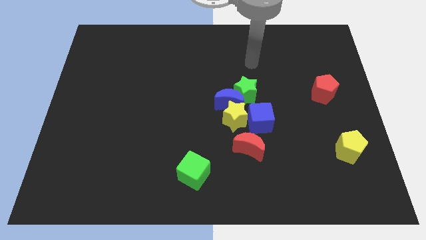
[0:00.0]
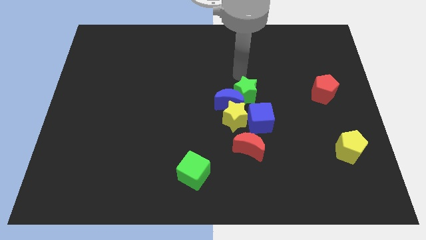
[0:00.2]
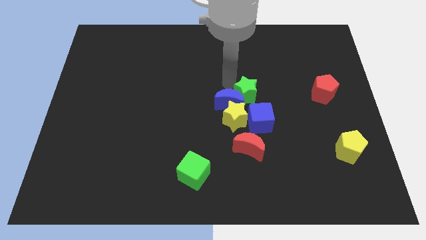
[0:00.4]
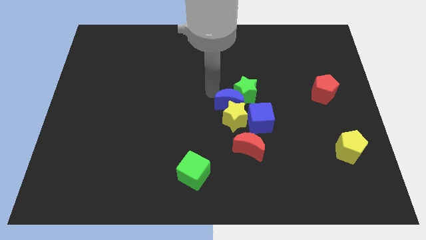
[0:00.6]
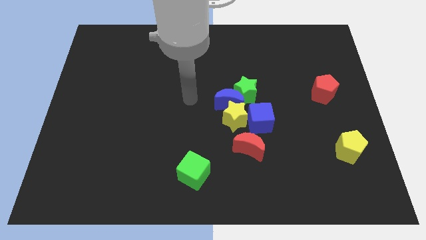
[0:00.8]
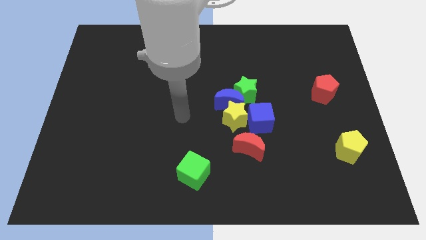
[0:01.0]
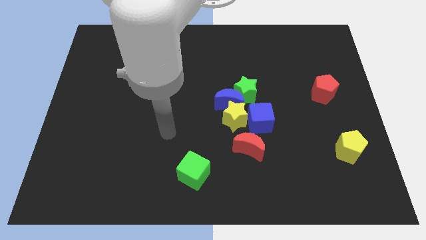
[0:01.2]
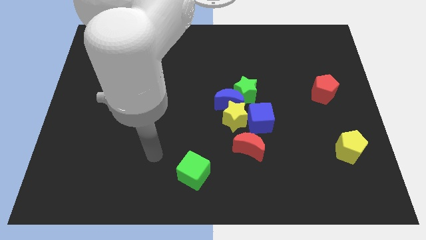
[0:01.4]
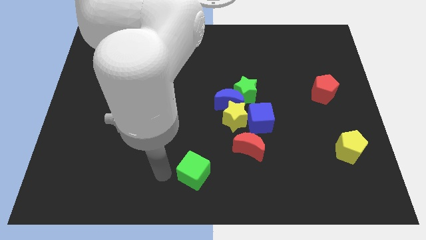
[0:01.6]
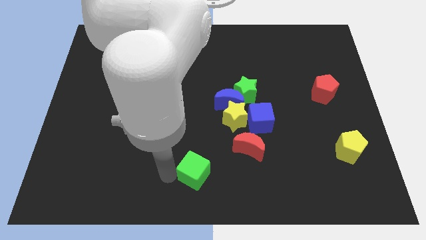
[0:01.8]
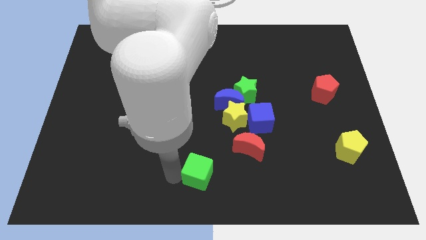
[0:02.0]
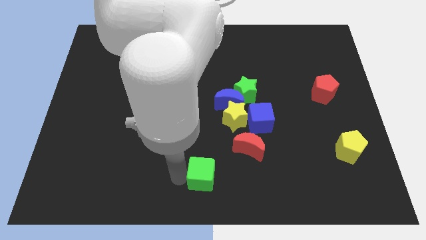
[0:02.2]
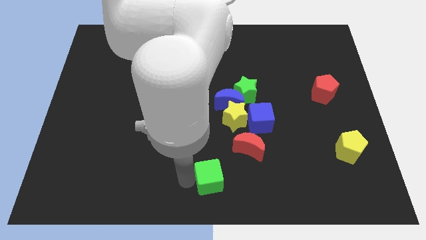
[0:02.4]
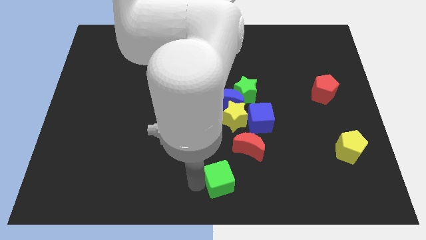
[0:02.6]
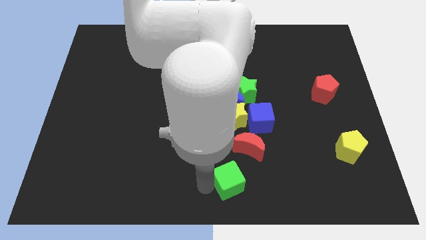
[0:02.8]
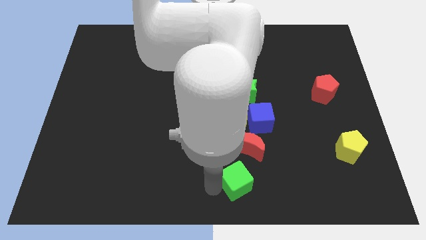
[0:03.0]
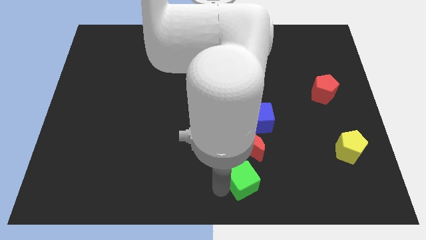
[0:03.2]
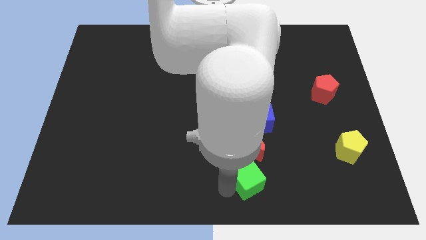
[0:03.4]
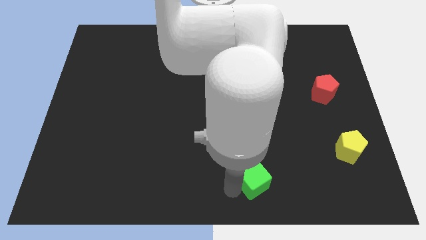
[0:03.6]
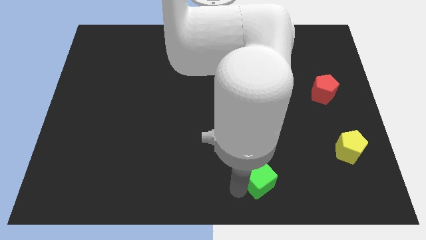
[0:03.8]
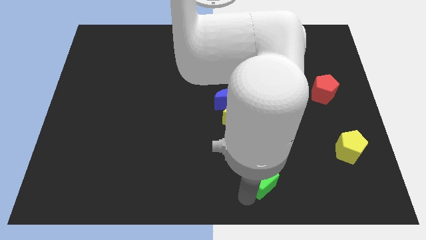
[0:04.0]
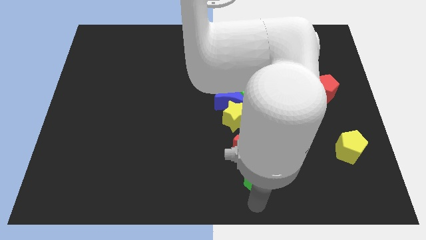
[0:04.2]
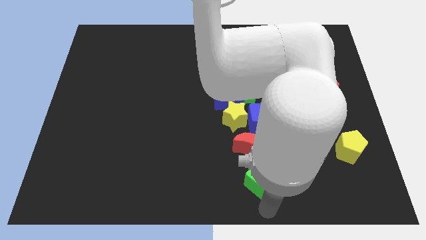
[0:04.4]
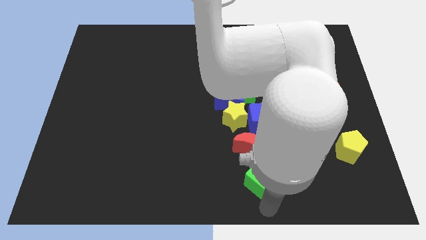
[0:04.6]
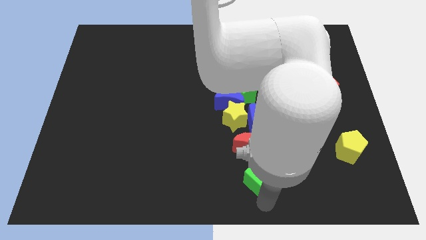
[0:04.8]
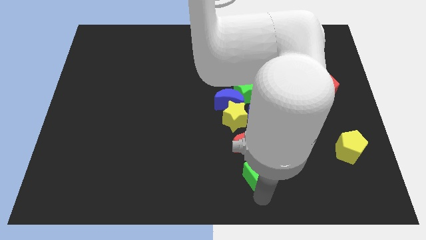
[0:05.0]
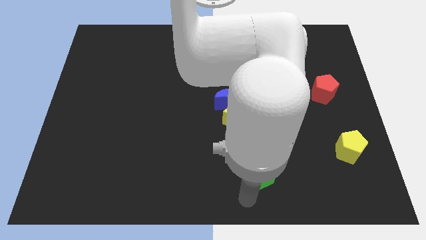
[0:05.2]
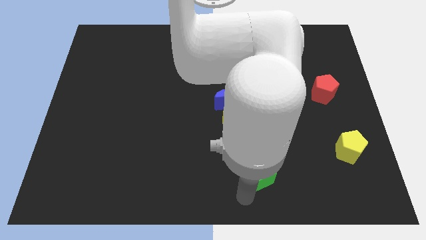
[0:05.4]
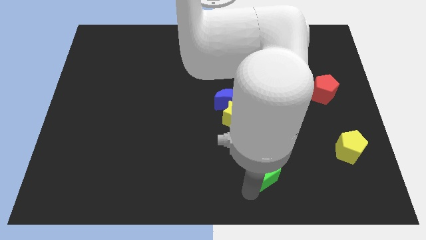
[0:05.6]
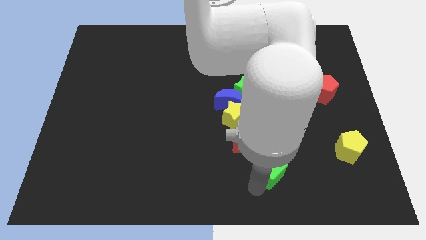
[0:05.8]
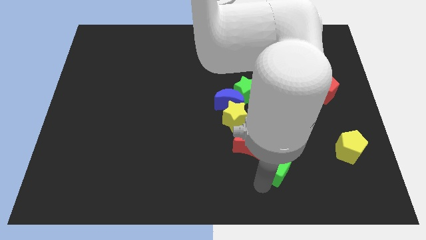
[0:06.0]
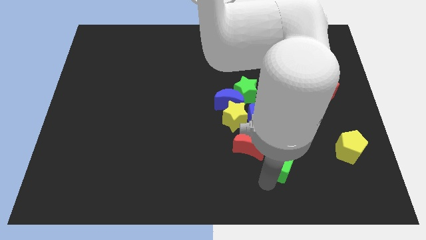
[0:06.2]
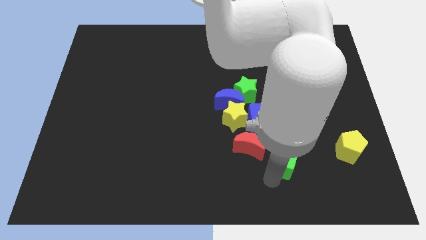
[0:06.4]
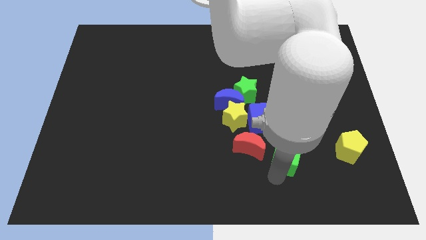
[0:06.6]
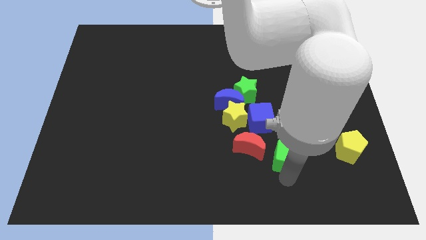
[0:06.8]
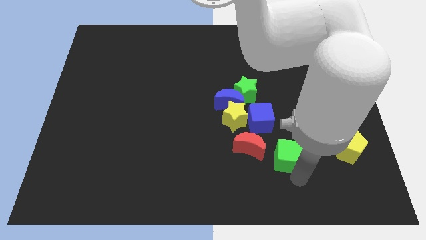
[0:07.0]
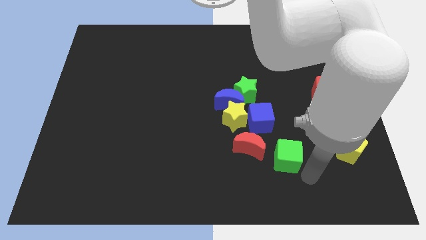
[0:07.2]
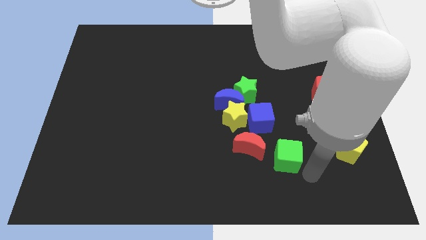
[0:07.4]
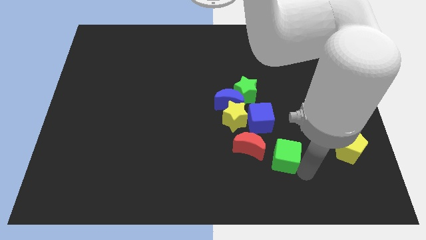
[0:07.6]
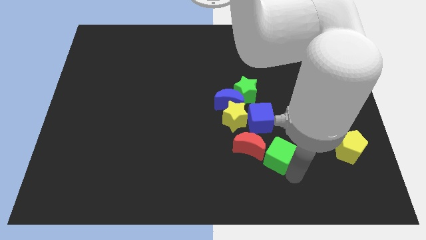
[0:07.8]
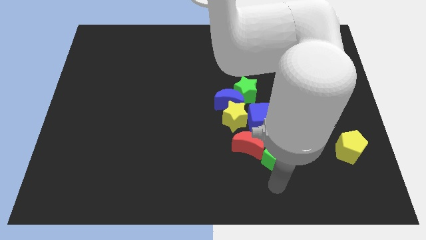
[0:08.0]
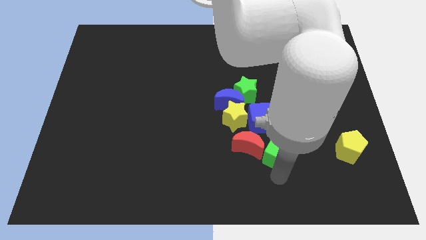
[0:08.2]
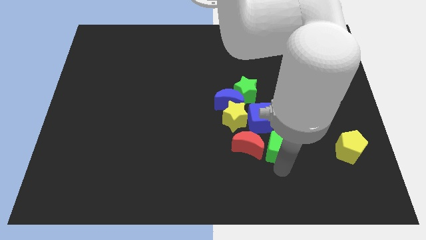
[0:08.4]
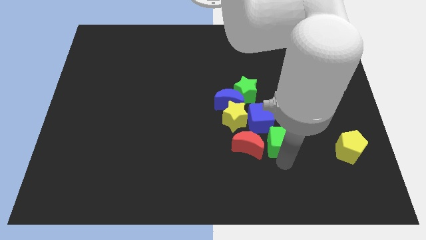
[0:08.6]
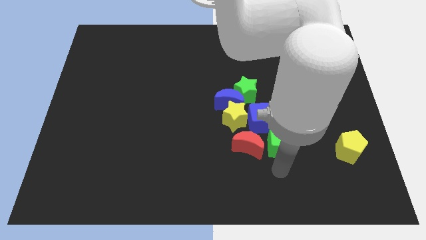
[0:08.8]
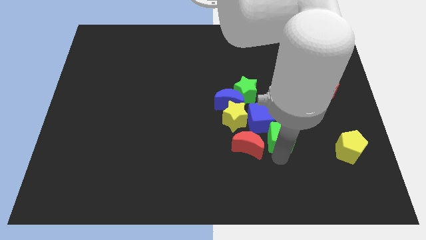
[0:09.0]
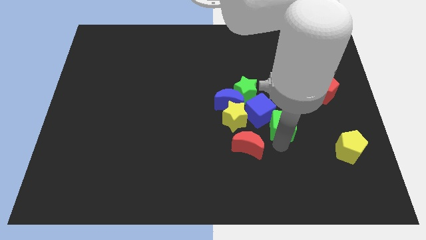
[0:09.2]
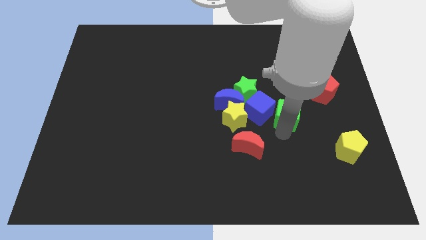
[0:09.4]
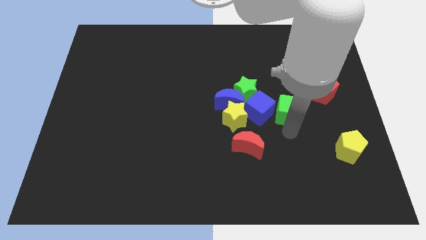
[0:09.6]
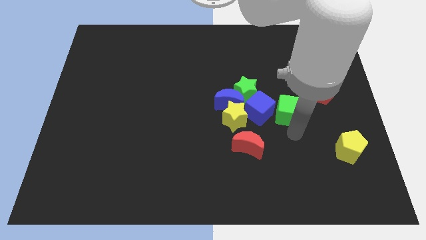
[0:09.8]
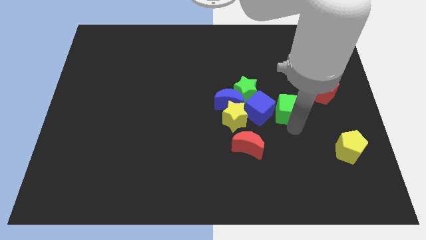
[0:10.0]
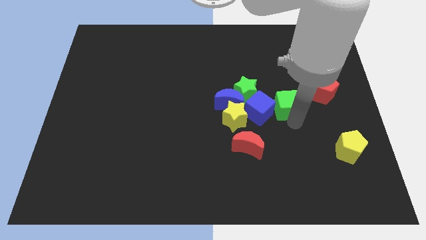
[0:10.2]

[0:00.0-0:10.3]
put the green cube left of the red pentagon
